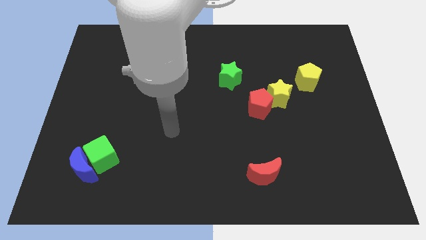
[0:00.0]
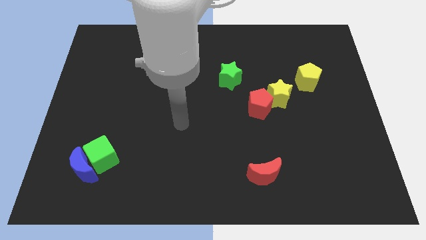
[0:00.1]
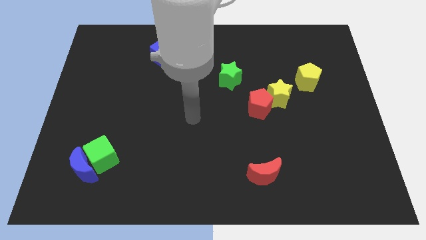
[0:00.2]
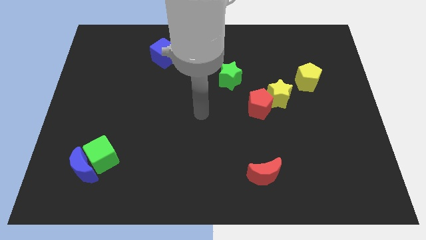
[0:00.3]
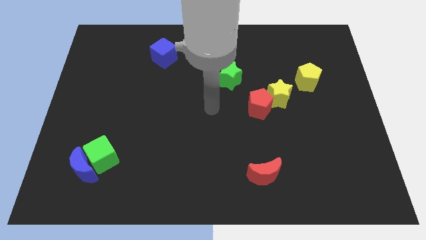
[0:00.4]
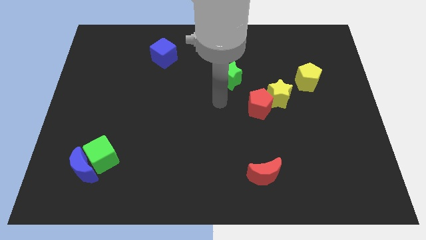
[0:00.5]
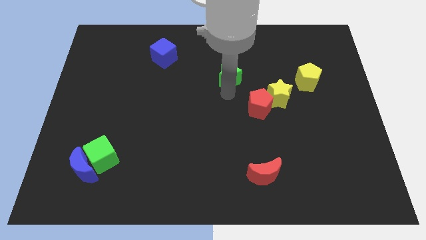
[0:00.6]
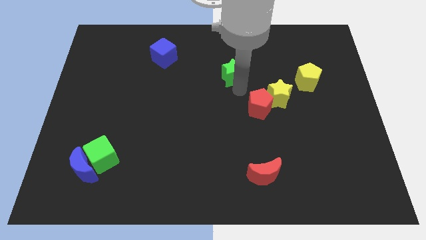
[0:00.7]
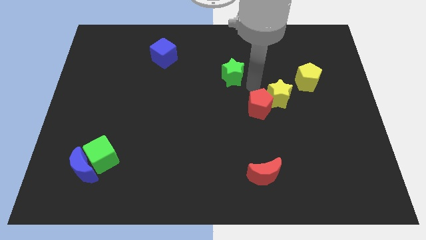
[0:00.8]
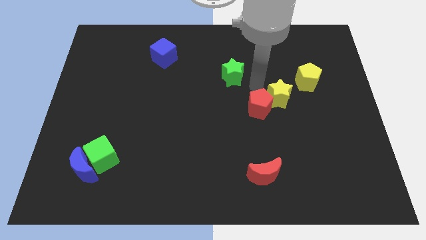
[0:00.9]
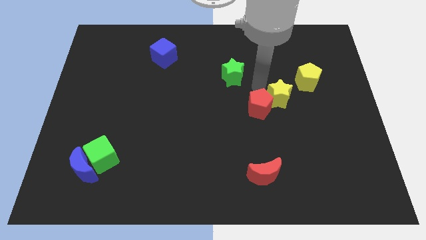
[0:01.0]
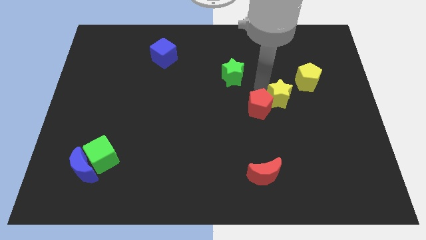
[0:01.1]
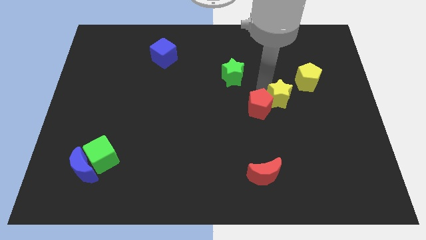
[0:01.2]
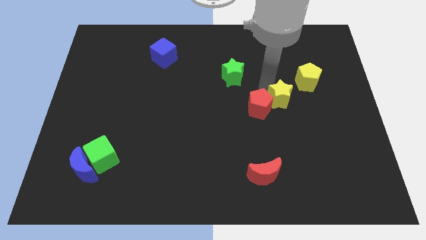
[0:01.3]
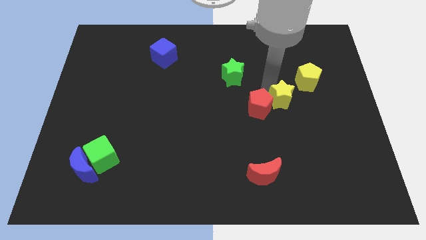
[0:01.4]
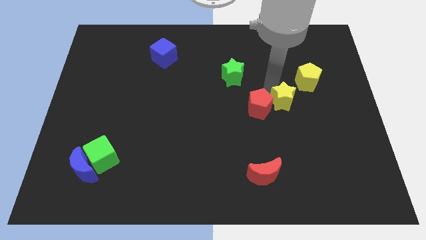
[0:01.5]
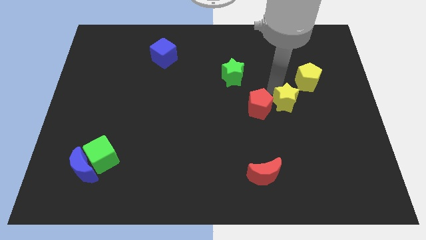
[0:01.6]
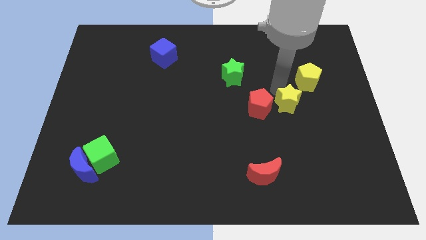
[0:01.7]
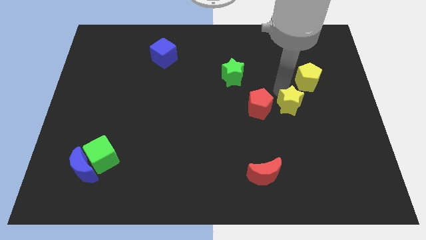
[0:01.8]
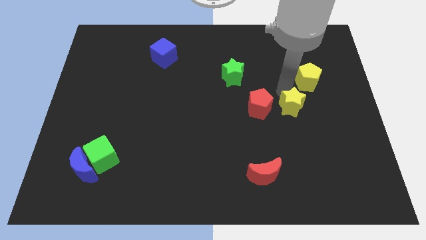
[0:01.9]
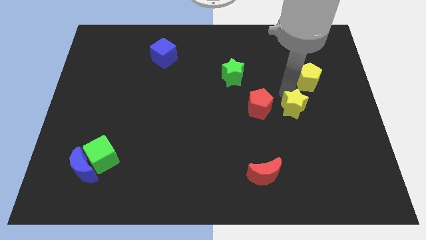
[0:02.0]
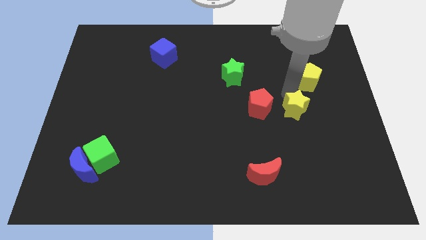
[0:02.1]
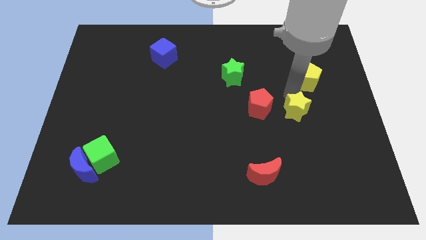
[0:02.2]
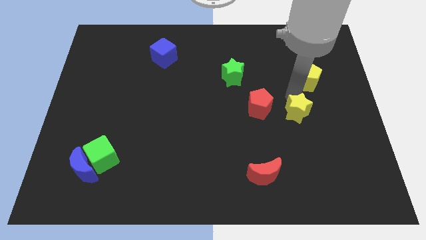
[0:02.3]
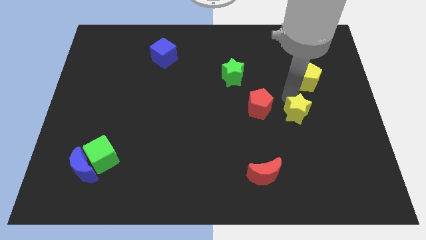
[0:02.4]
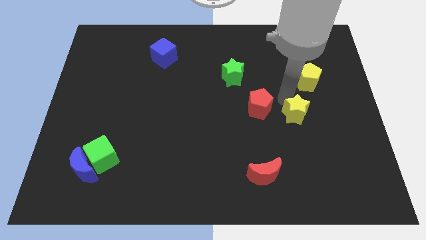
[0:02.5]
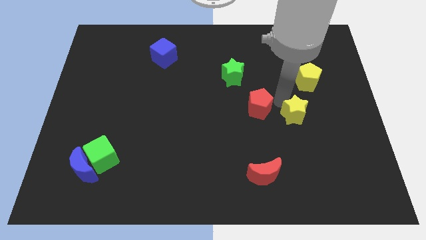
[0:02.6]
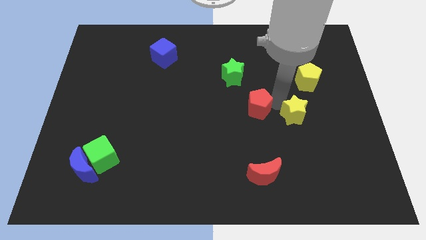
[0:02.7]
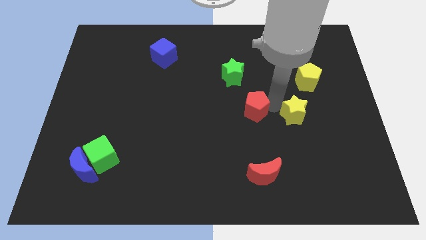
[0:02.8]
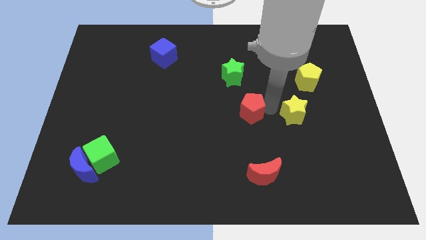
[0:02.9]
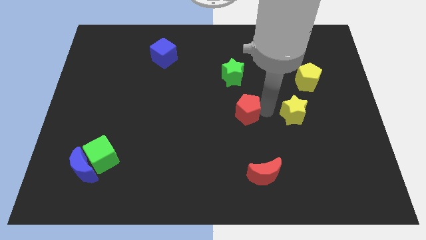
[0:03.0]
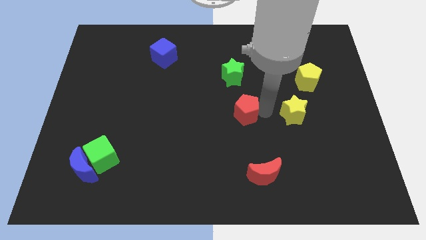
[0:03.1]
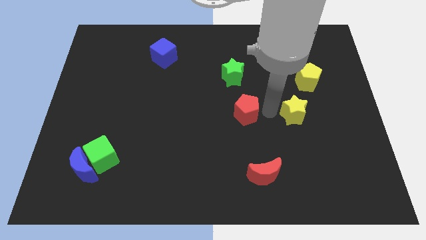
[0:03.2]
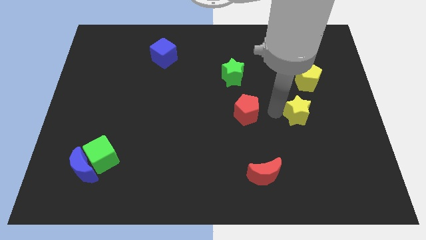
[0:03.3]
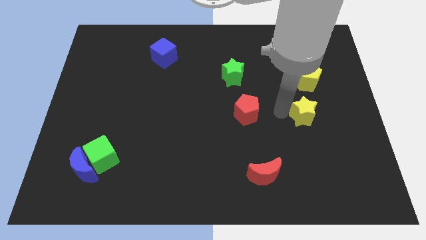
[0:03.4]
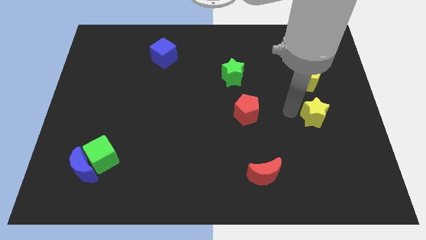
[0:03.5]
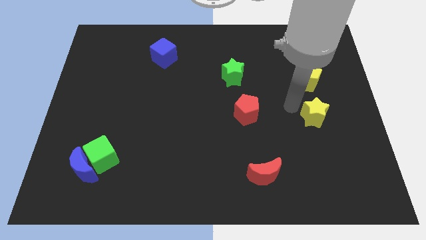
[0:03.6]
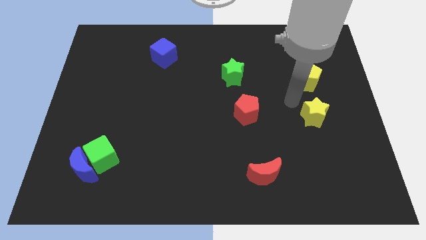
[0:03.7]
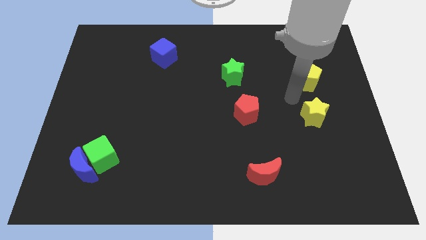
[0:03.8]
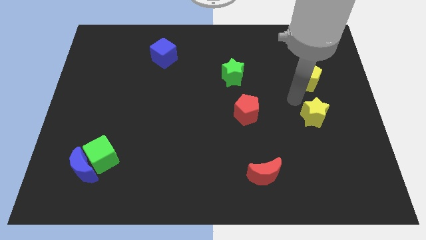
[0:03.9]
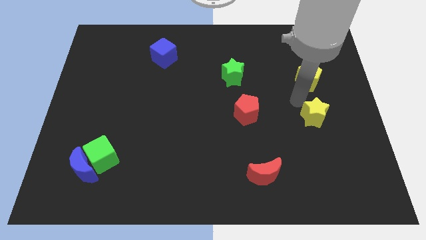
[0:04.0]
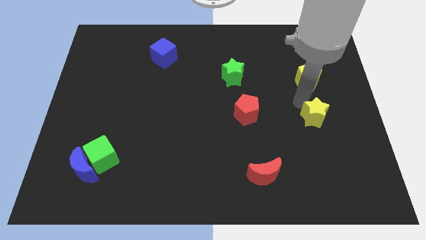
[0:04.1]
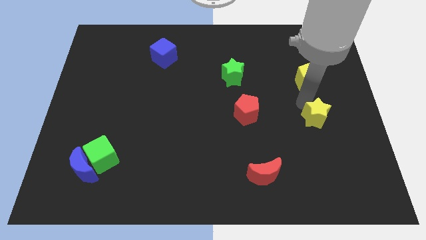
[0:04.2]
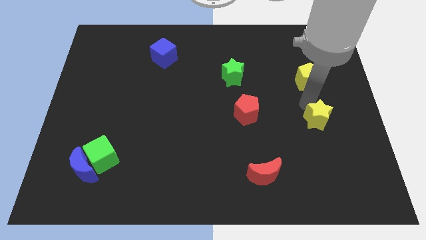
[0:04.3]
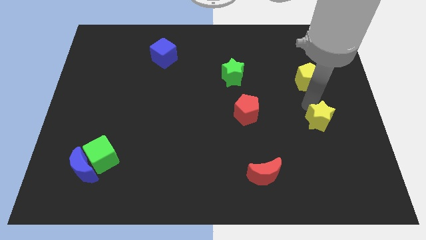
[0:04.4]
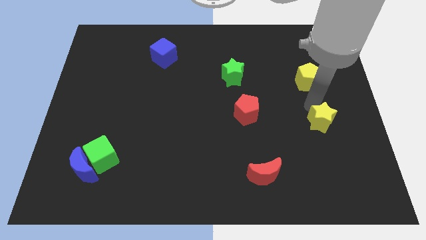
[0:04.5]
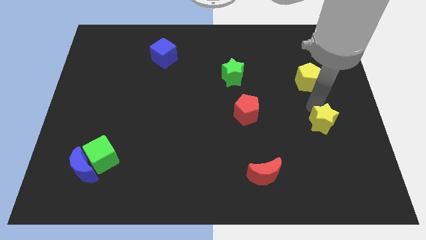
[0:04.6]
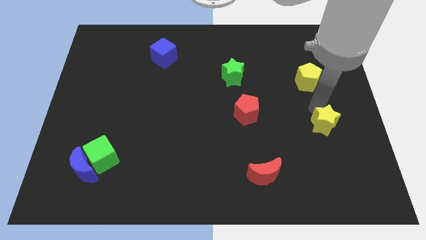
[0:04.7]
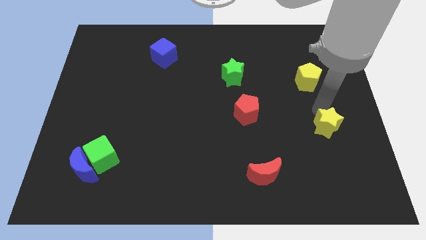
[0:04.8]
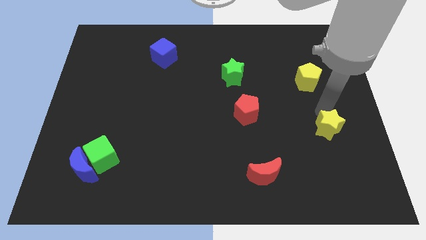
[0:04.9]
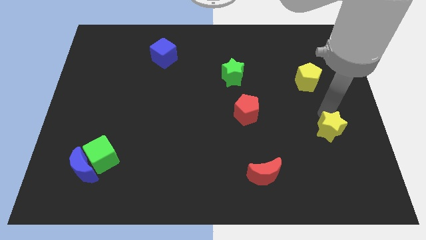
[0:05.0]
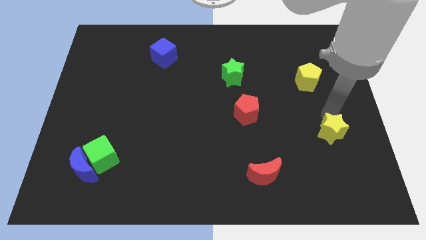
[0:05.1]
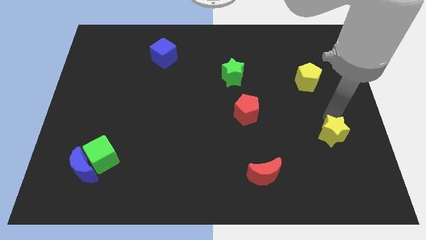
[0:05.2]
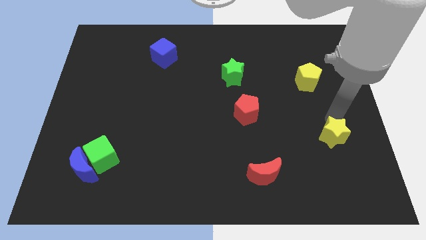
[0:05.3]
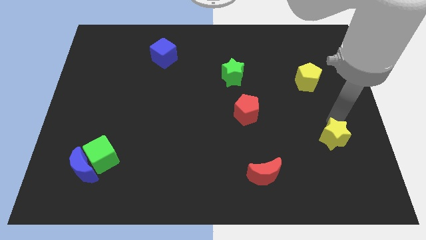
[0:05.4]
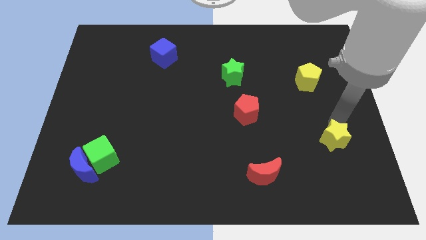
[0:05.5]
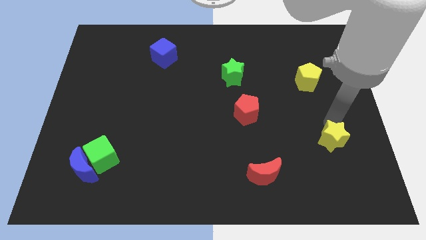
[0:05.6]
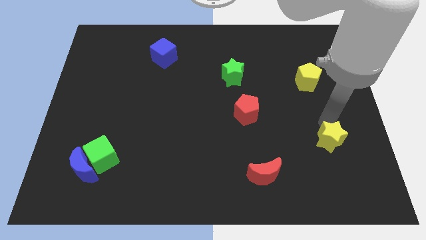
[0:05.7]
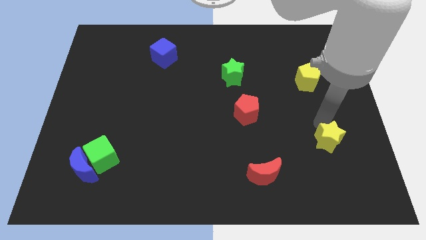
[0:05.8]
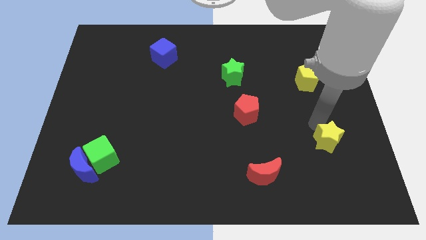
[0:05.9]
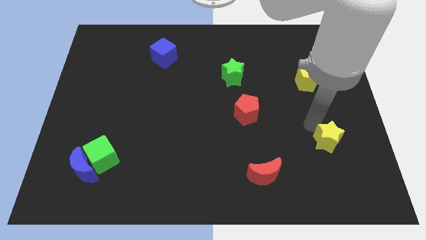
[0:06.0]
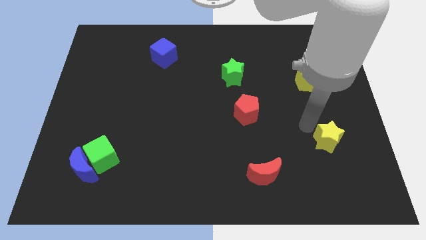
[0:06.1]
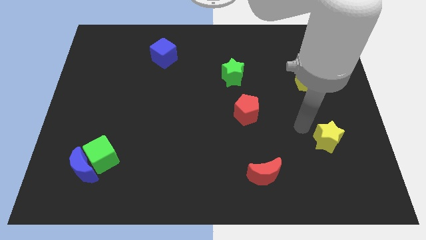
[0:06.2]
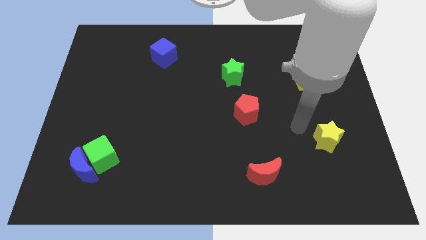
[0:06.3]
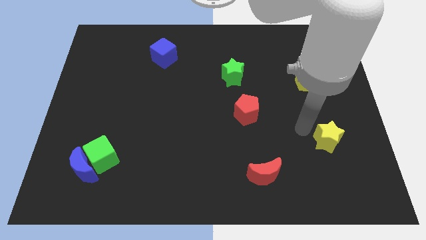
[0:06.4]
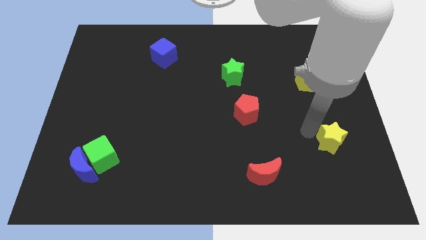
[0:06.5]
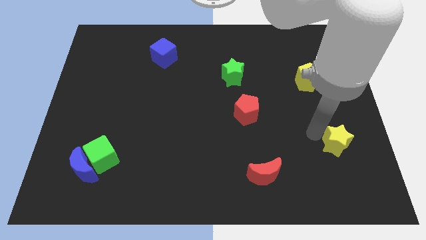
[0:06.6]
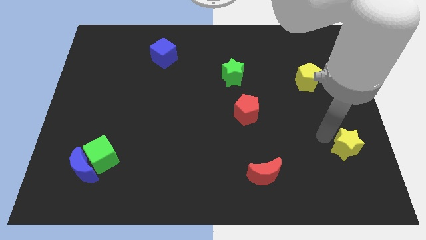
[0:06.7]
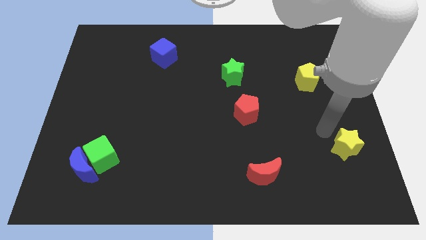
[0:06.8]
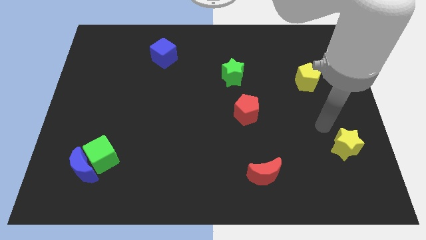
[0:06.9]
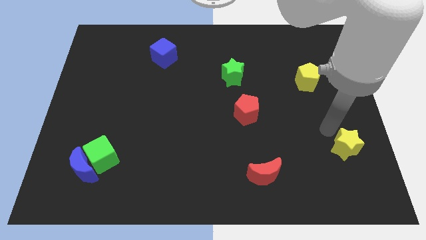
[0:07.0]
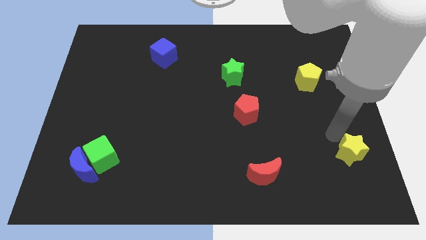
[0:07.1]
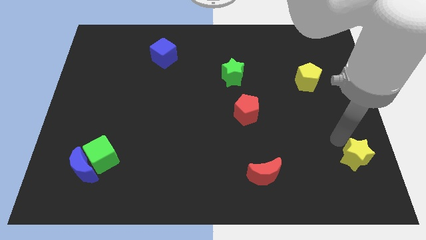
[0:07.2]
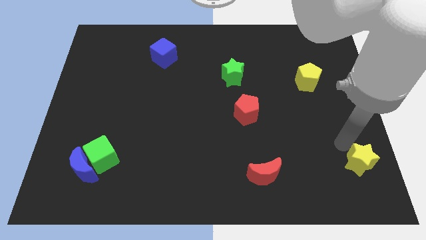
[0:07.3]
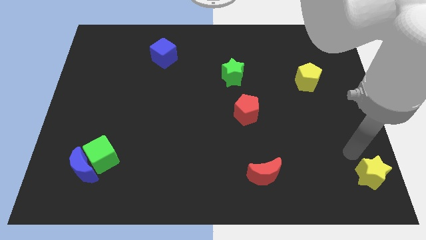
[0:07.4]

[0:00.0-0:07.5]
push the yellow star to the bottom right of the board

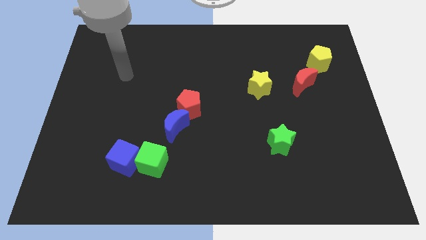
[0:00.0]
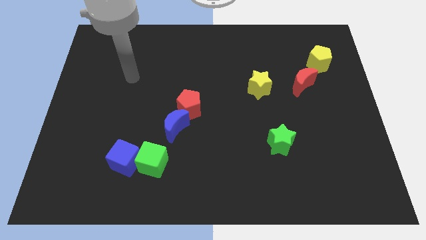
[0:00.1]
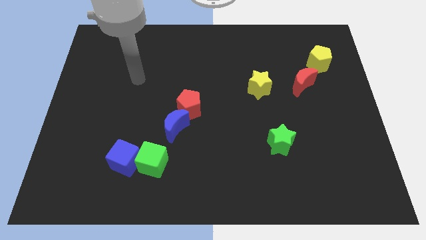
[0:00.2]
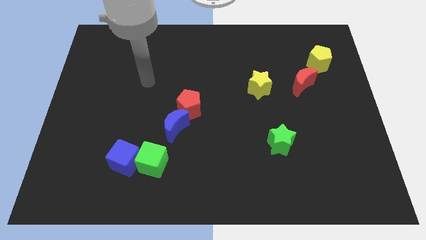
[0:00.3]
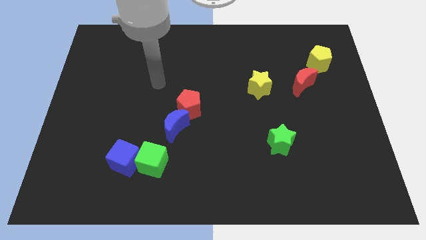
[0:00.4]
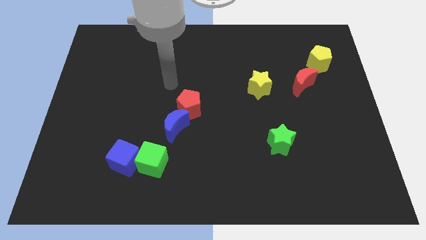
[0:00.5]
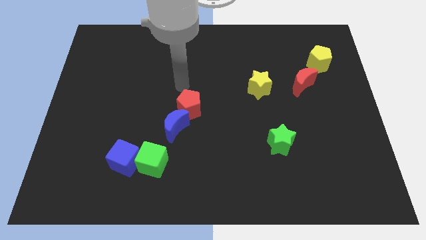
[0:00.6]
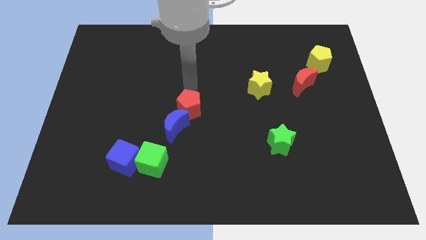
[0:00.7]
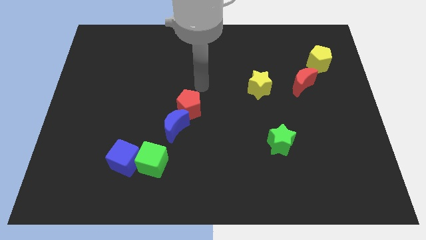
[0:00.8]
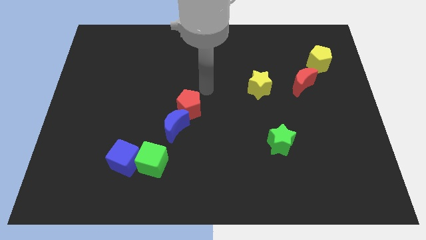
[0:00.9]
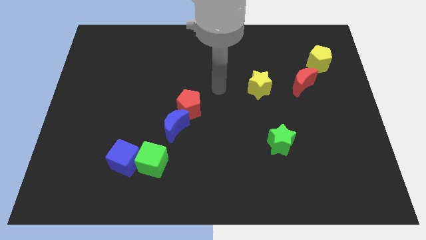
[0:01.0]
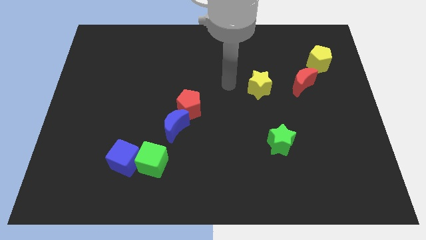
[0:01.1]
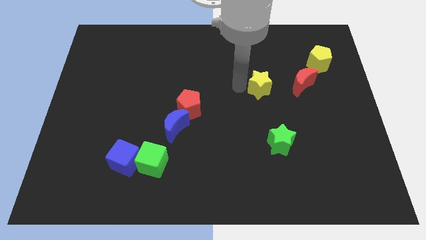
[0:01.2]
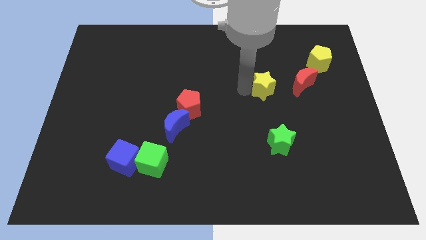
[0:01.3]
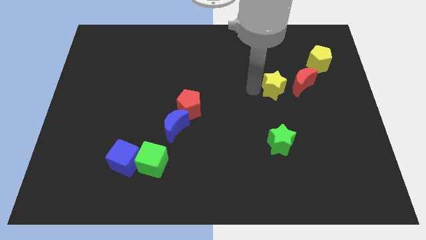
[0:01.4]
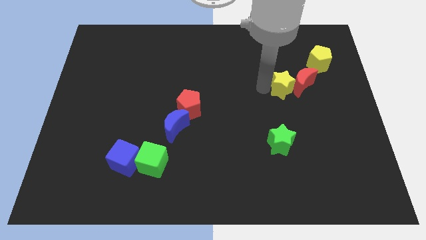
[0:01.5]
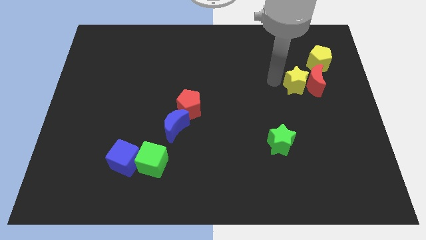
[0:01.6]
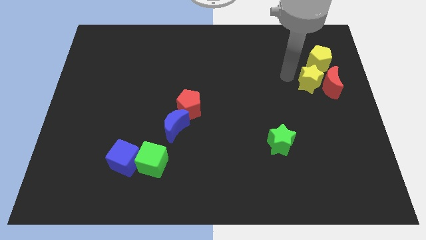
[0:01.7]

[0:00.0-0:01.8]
move the red moon to the center right
